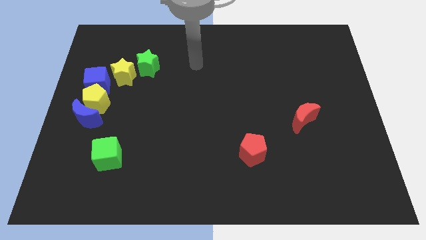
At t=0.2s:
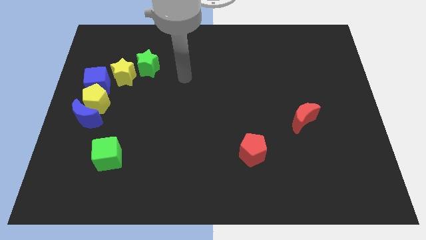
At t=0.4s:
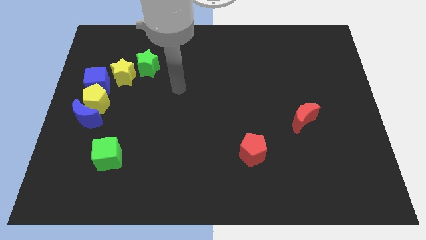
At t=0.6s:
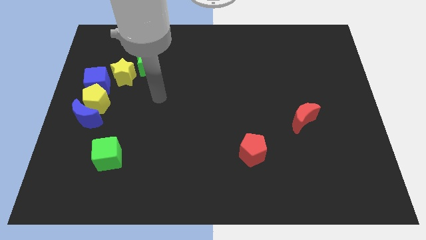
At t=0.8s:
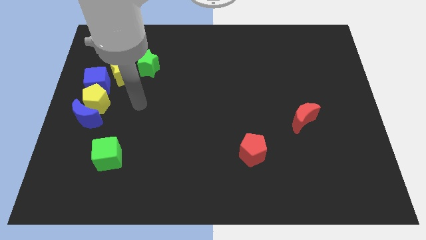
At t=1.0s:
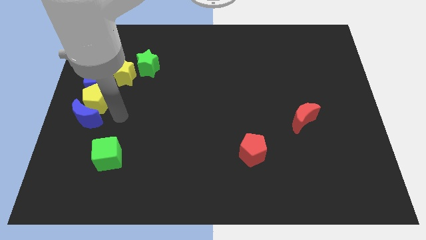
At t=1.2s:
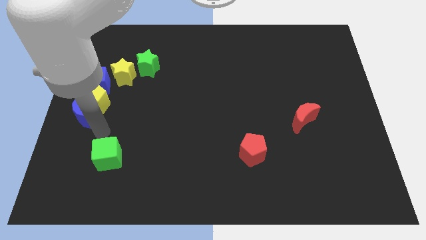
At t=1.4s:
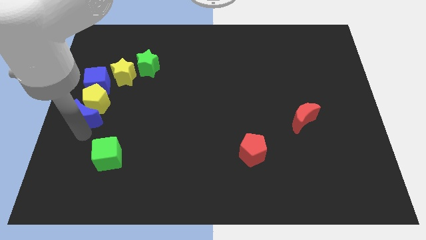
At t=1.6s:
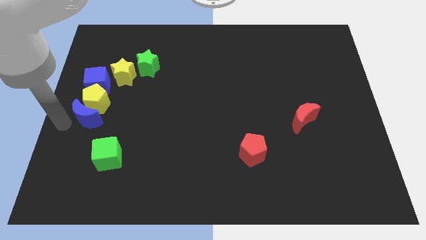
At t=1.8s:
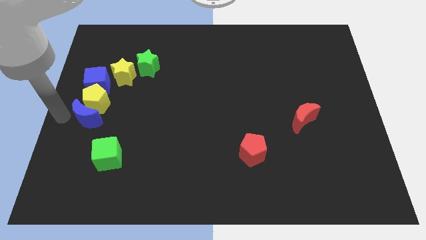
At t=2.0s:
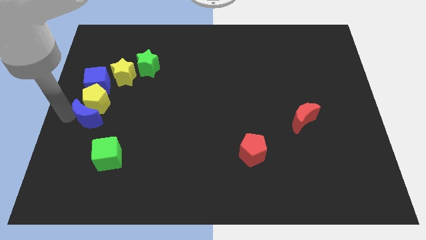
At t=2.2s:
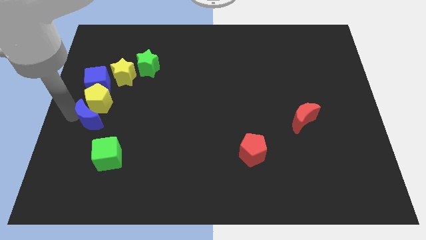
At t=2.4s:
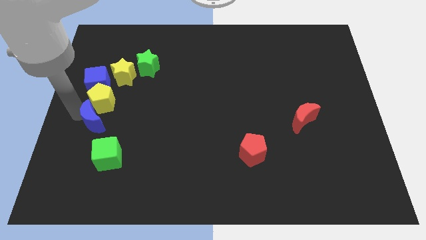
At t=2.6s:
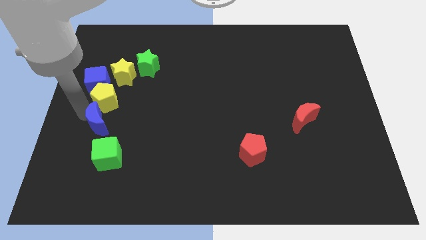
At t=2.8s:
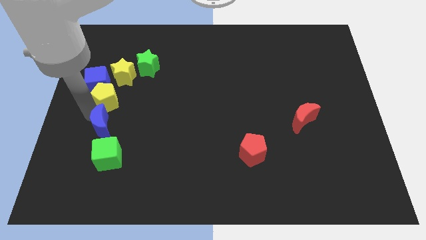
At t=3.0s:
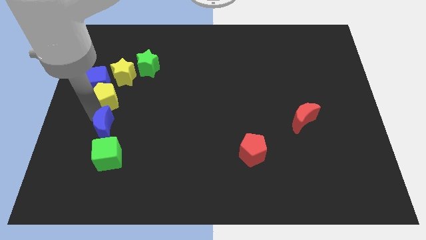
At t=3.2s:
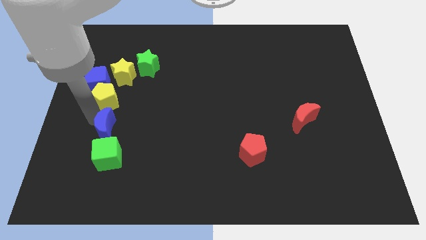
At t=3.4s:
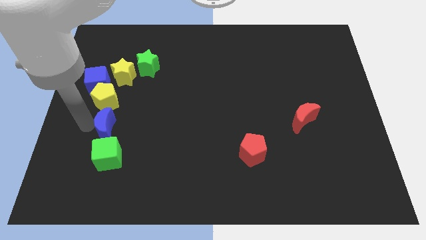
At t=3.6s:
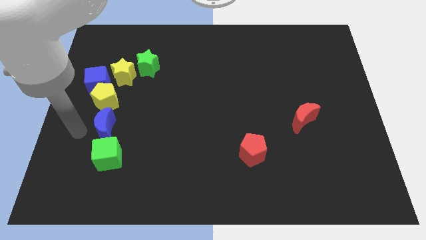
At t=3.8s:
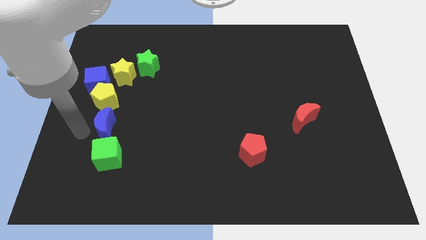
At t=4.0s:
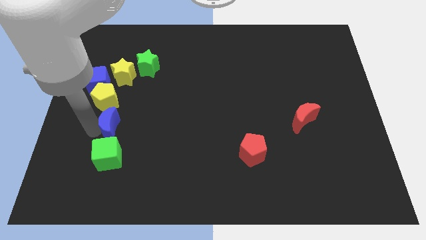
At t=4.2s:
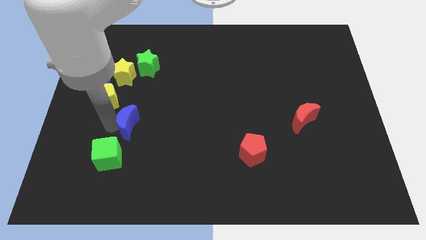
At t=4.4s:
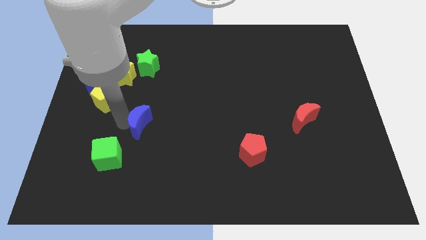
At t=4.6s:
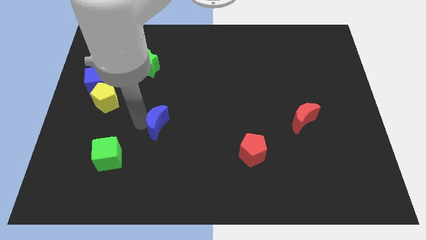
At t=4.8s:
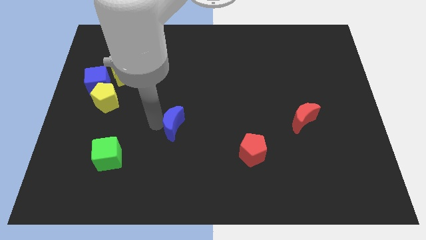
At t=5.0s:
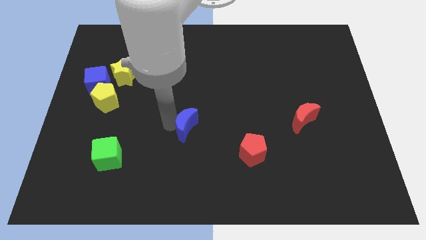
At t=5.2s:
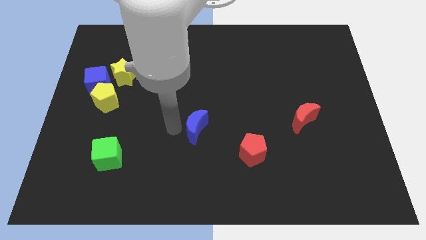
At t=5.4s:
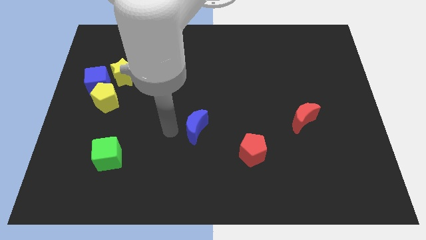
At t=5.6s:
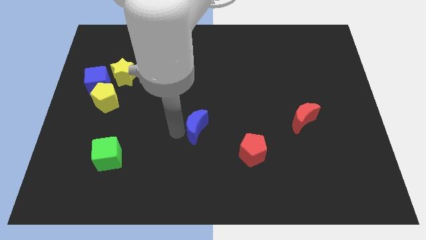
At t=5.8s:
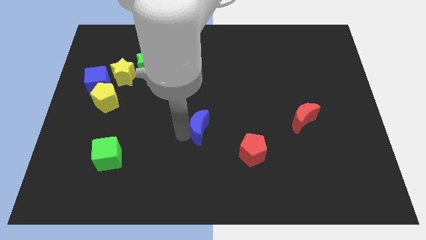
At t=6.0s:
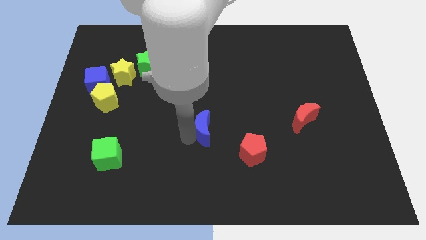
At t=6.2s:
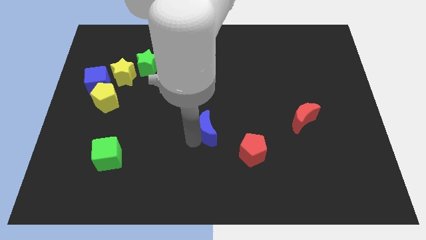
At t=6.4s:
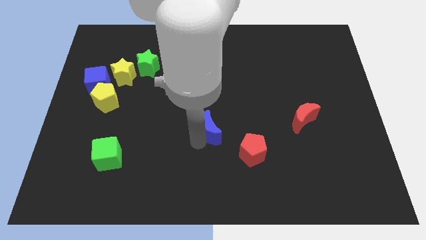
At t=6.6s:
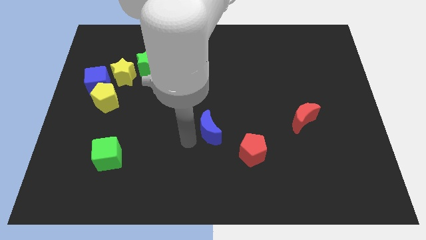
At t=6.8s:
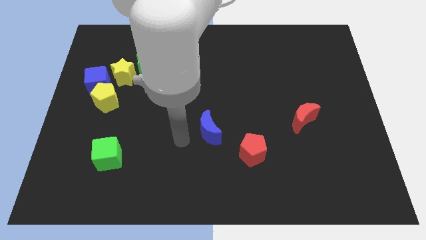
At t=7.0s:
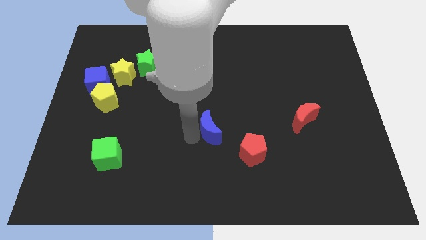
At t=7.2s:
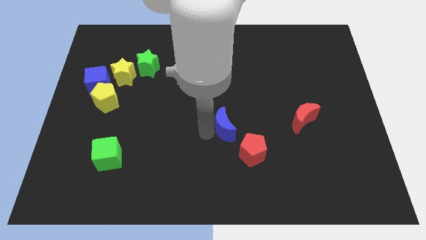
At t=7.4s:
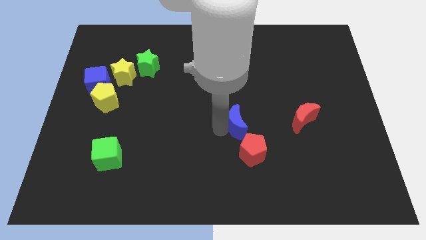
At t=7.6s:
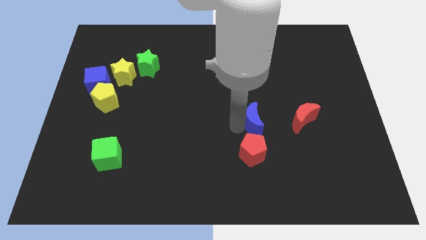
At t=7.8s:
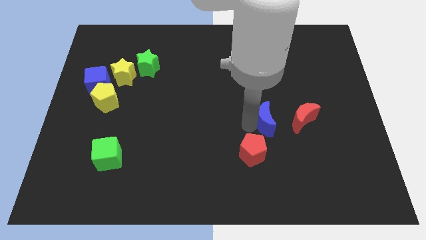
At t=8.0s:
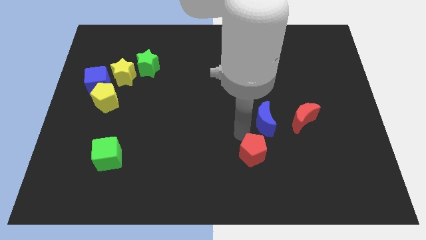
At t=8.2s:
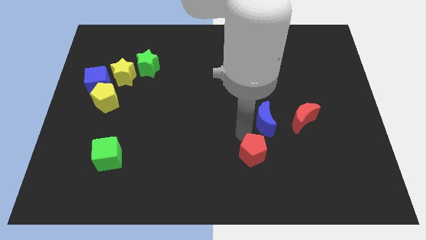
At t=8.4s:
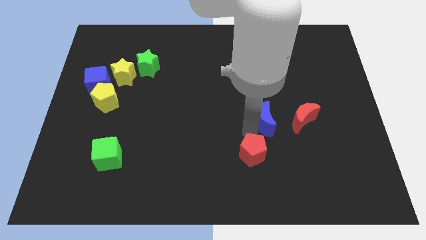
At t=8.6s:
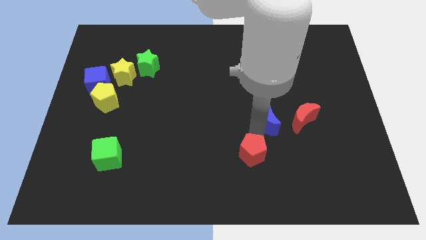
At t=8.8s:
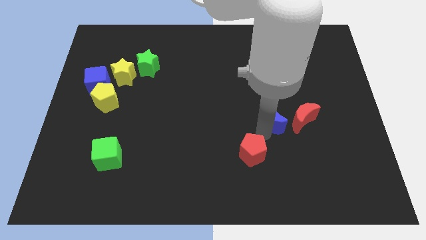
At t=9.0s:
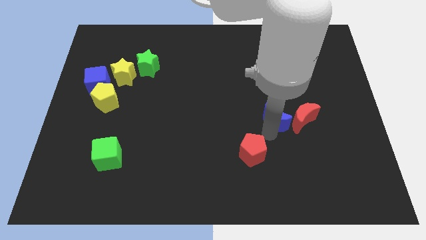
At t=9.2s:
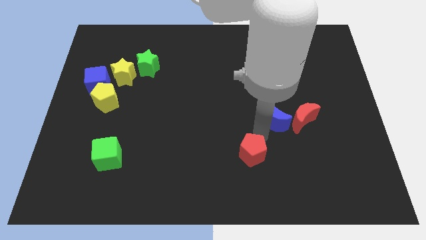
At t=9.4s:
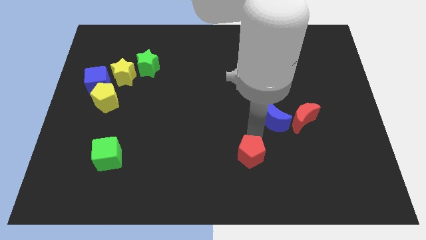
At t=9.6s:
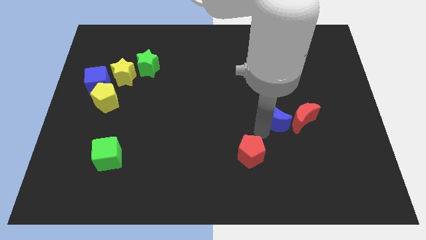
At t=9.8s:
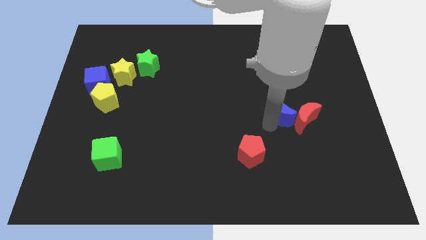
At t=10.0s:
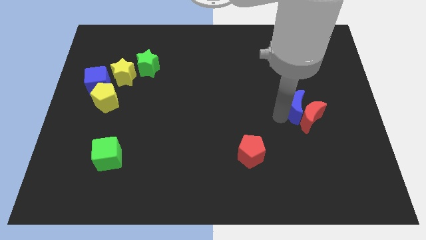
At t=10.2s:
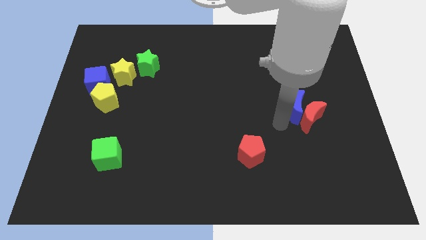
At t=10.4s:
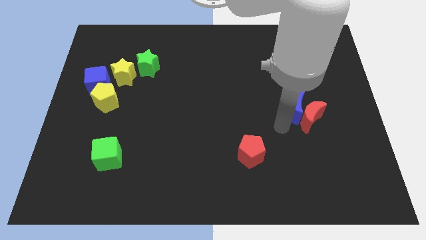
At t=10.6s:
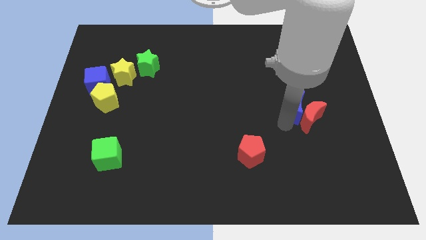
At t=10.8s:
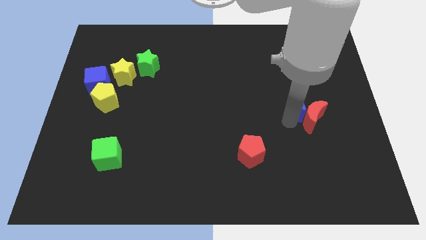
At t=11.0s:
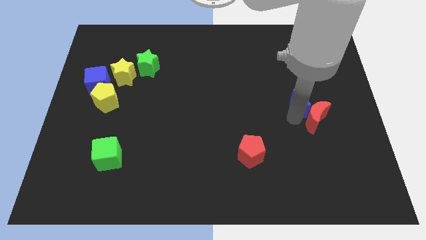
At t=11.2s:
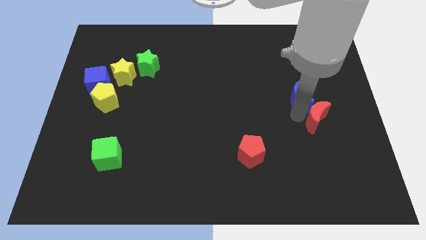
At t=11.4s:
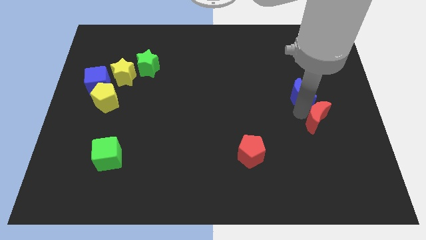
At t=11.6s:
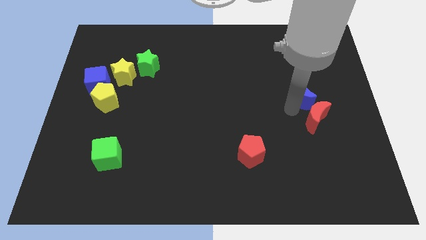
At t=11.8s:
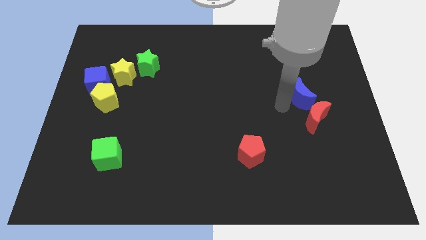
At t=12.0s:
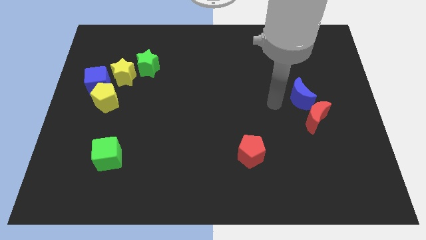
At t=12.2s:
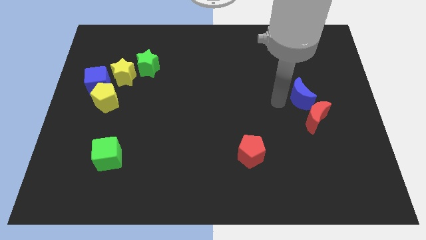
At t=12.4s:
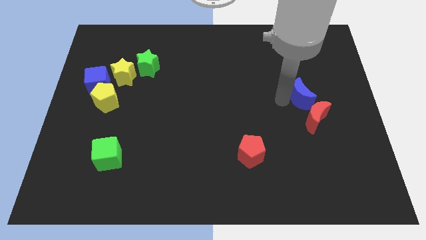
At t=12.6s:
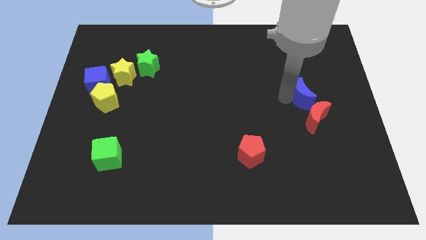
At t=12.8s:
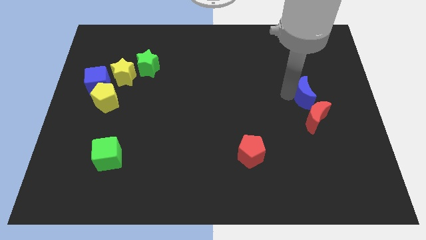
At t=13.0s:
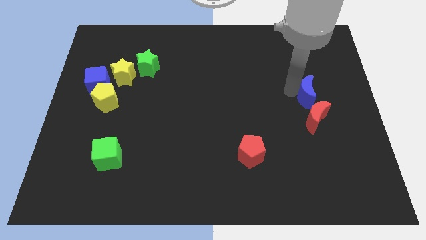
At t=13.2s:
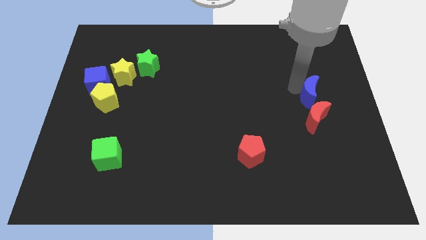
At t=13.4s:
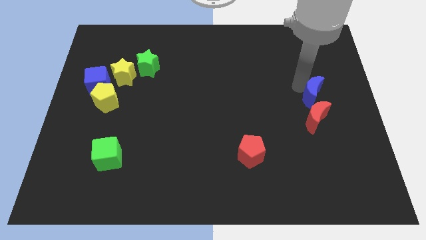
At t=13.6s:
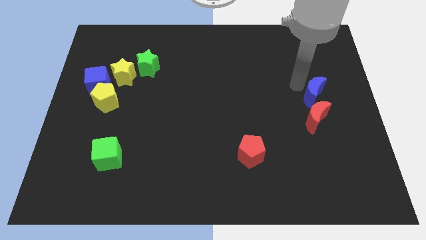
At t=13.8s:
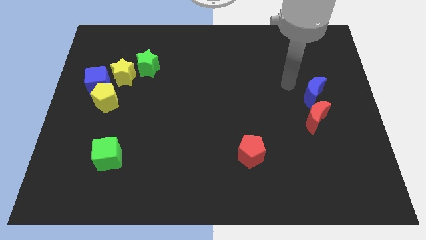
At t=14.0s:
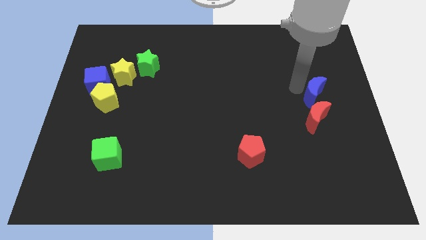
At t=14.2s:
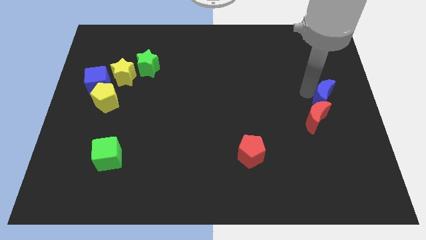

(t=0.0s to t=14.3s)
put the blue moon to the right side of the board
